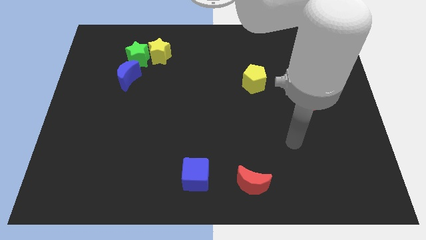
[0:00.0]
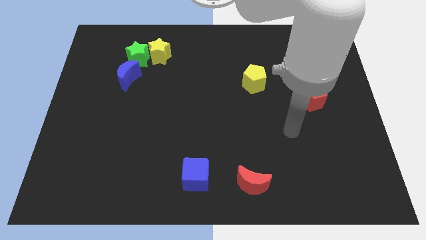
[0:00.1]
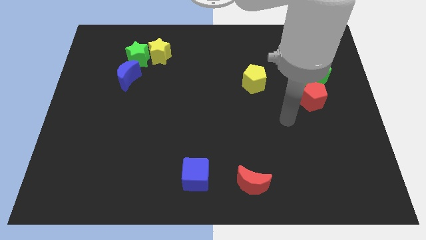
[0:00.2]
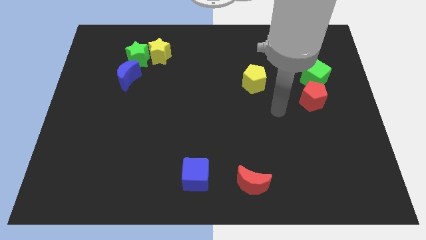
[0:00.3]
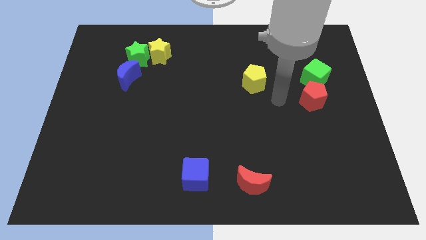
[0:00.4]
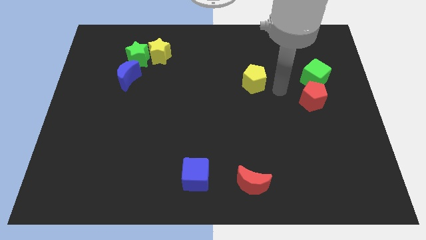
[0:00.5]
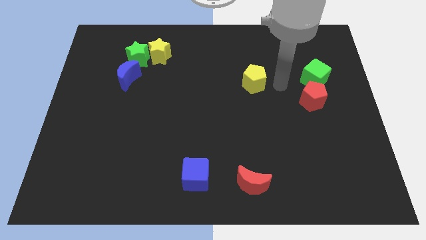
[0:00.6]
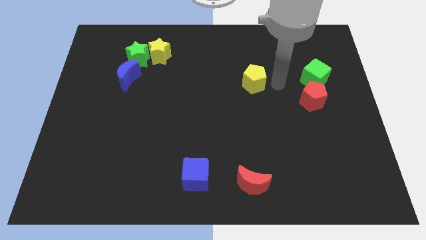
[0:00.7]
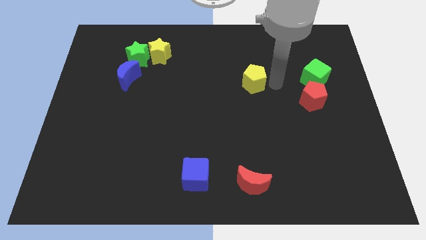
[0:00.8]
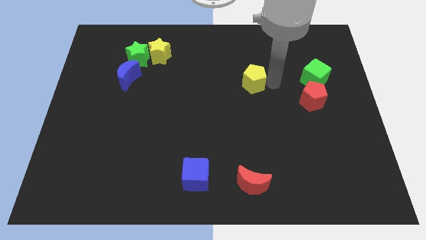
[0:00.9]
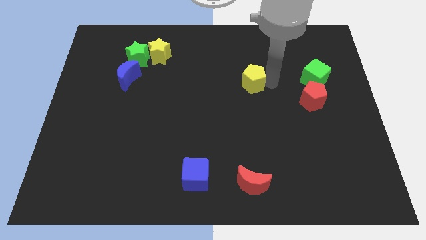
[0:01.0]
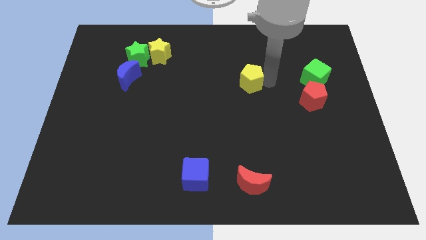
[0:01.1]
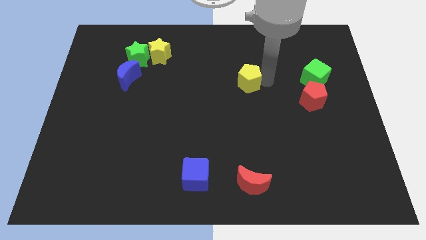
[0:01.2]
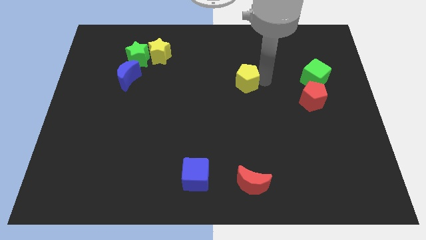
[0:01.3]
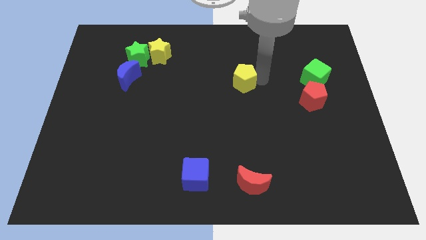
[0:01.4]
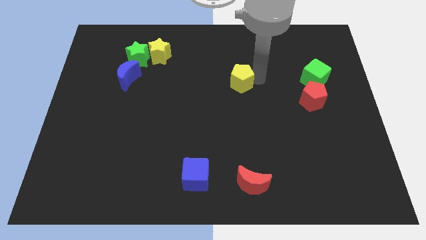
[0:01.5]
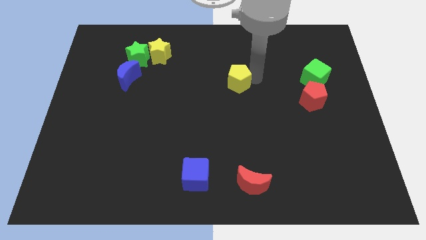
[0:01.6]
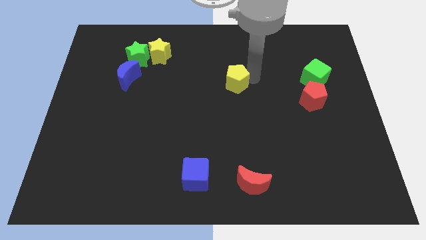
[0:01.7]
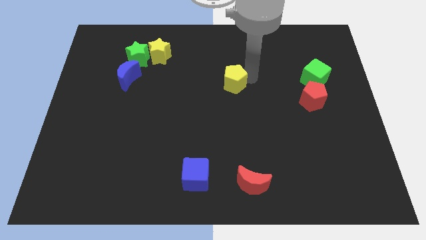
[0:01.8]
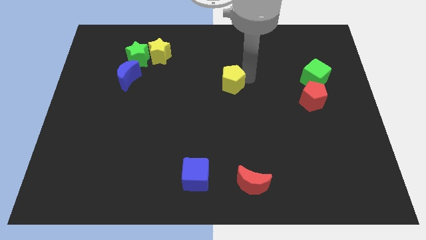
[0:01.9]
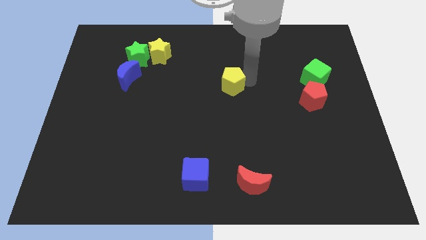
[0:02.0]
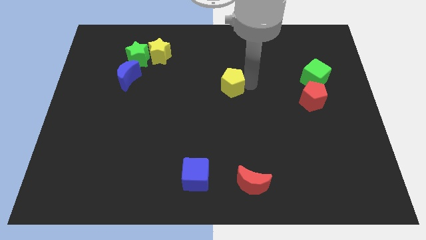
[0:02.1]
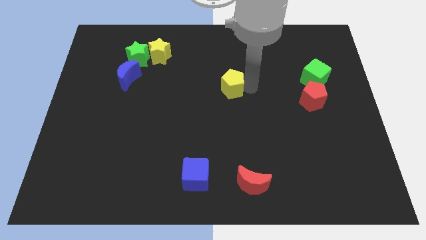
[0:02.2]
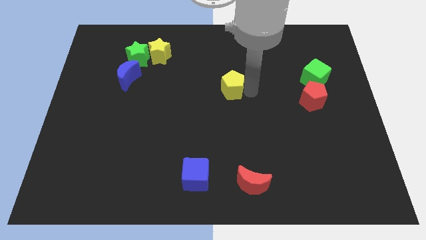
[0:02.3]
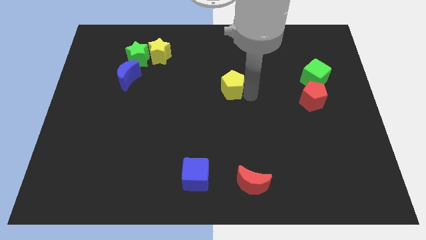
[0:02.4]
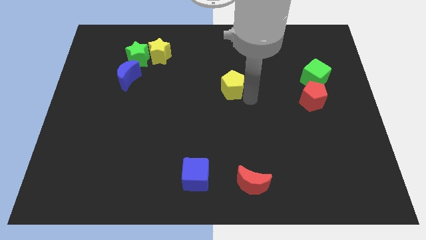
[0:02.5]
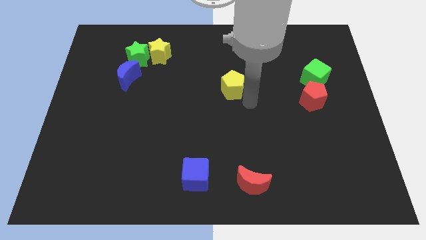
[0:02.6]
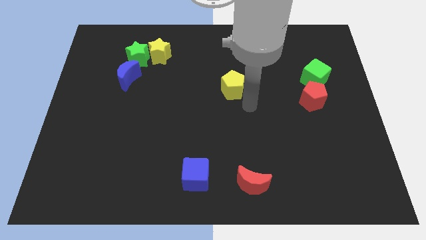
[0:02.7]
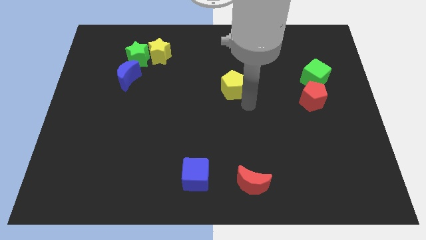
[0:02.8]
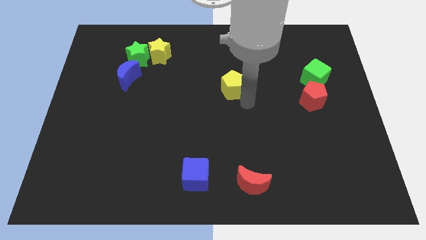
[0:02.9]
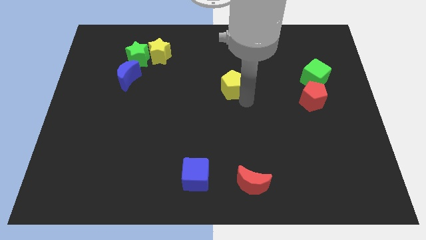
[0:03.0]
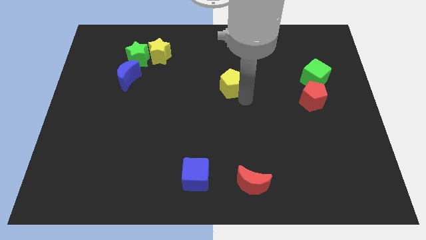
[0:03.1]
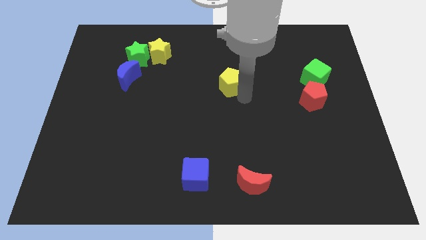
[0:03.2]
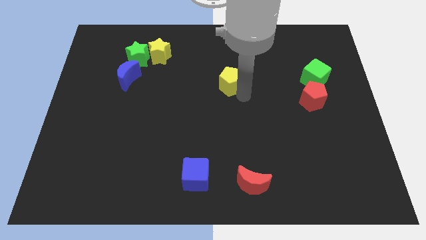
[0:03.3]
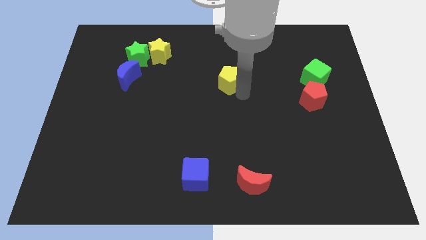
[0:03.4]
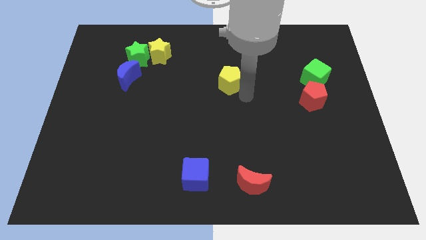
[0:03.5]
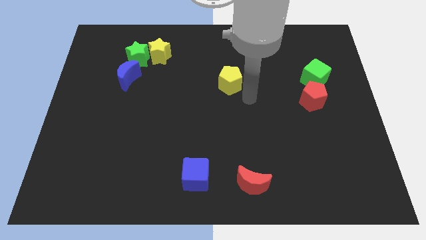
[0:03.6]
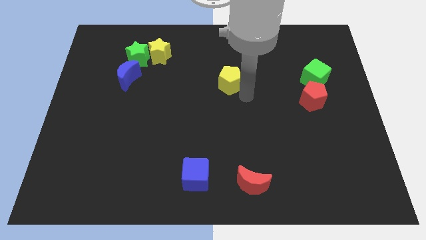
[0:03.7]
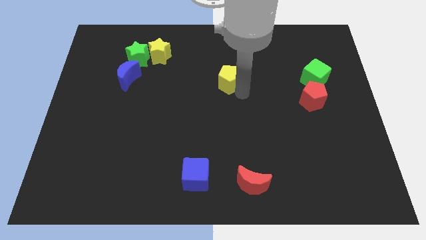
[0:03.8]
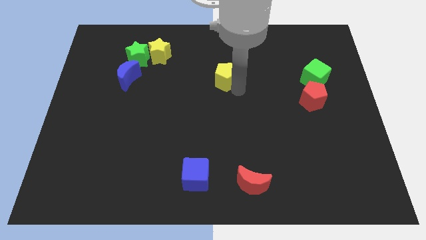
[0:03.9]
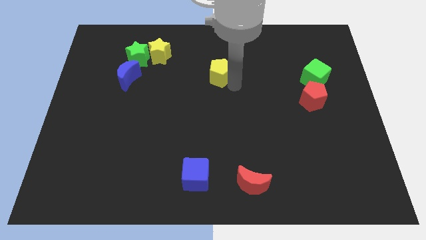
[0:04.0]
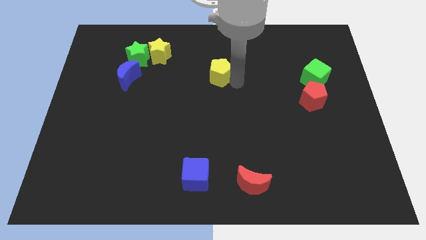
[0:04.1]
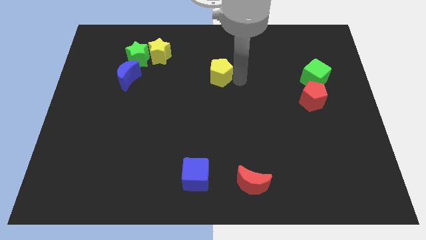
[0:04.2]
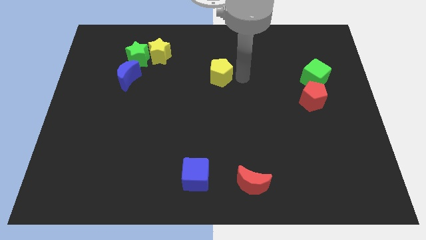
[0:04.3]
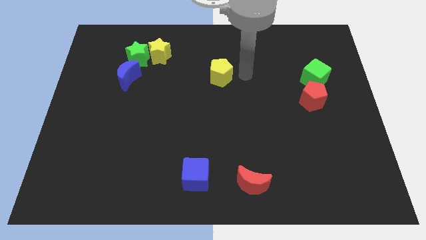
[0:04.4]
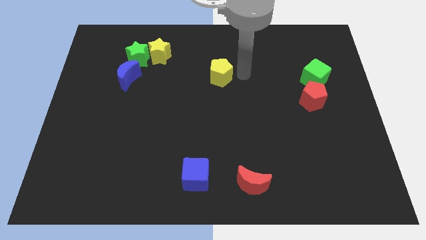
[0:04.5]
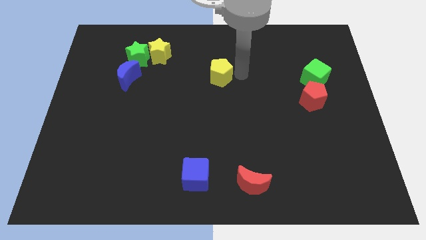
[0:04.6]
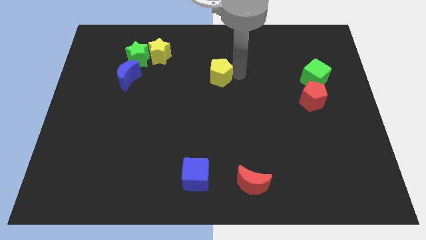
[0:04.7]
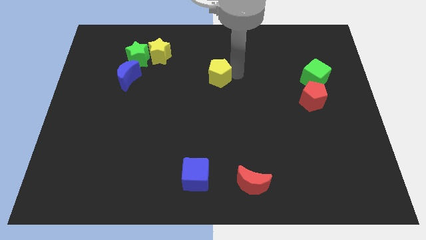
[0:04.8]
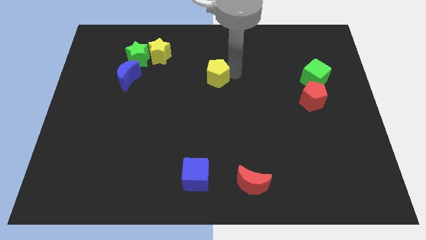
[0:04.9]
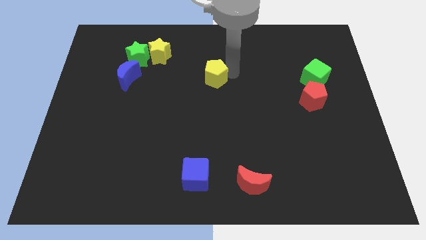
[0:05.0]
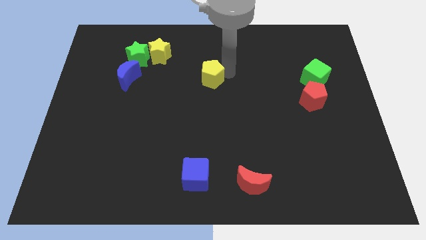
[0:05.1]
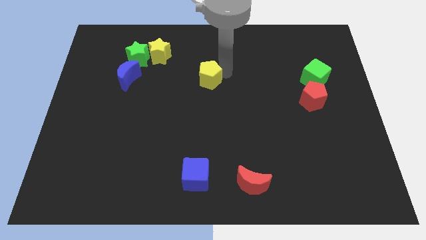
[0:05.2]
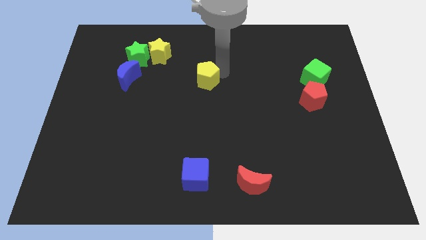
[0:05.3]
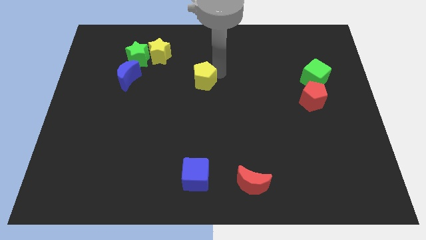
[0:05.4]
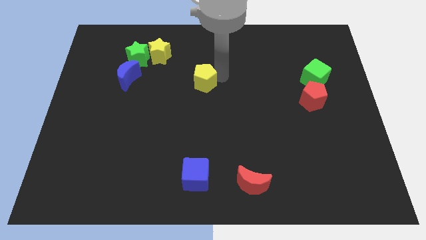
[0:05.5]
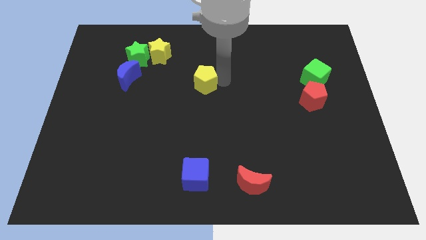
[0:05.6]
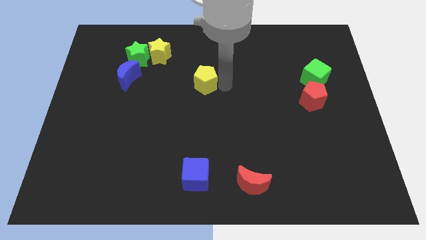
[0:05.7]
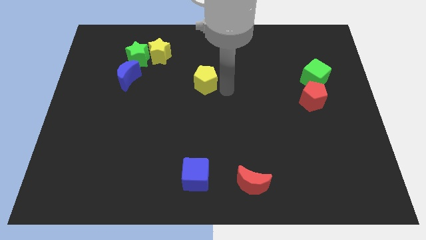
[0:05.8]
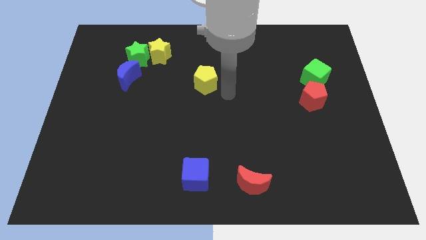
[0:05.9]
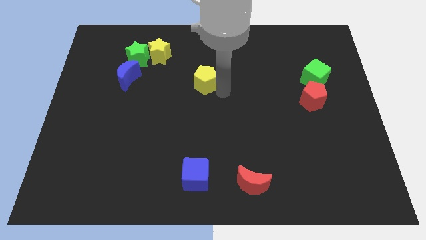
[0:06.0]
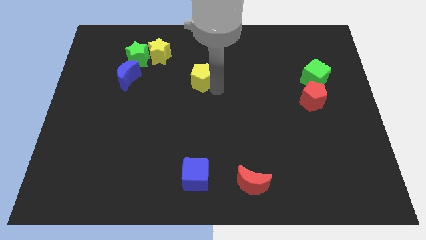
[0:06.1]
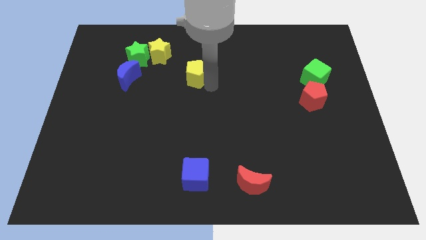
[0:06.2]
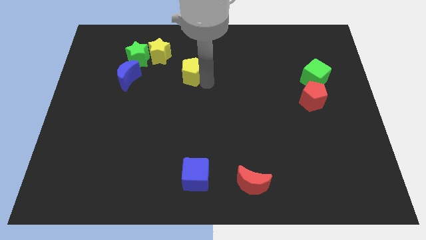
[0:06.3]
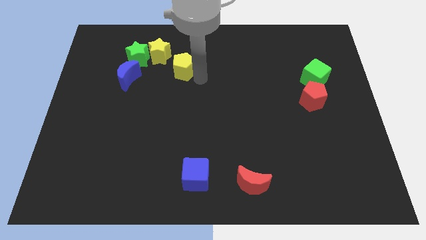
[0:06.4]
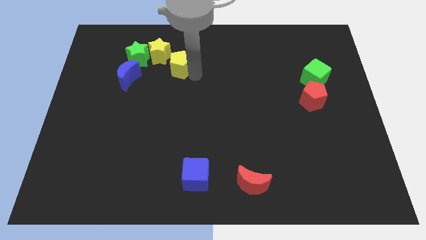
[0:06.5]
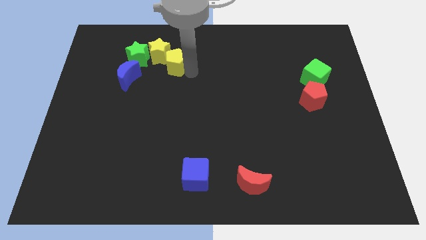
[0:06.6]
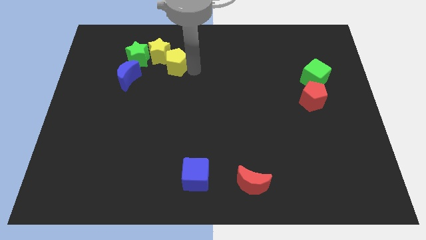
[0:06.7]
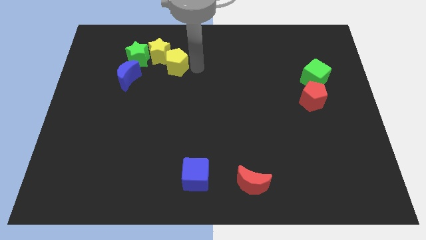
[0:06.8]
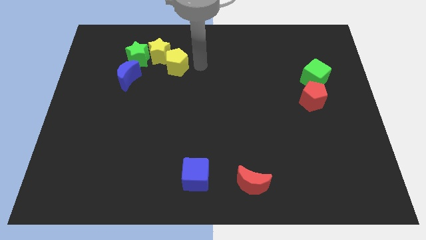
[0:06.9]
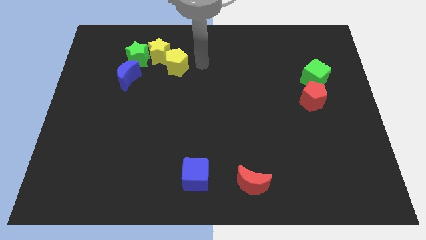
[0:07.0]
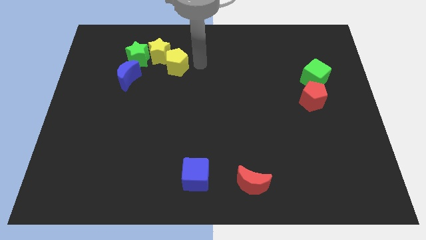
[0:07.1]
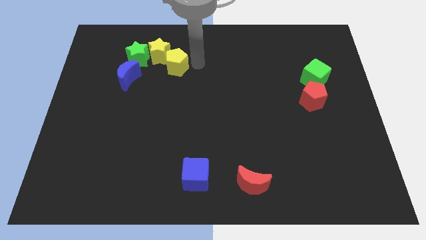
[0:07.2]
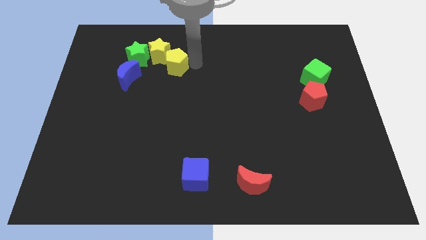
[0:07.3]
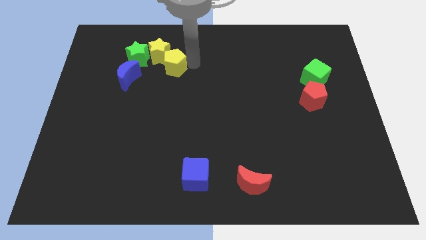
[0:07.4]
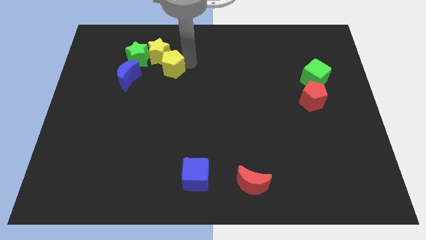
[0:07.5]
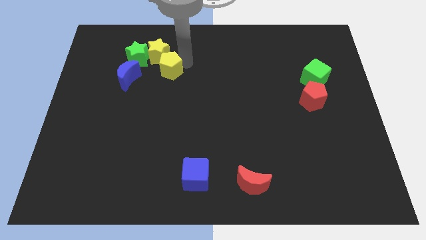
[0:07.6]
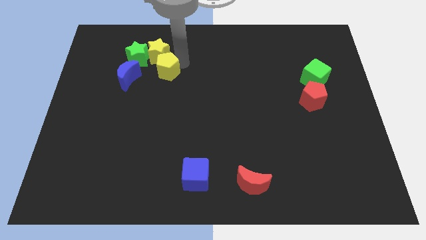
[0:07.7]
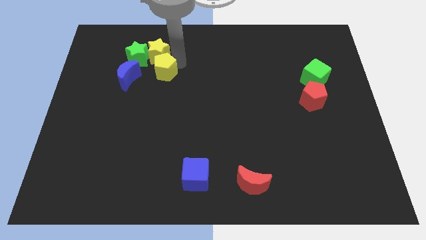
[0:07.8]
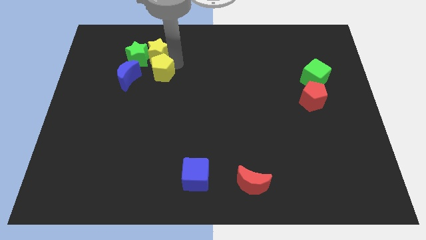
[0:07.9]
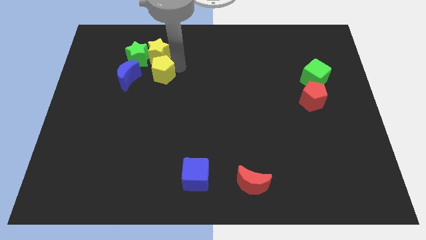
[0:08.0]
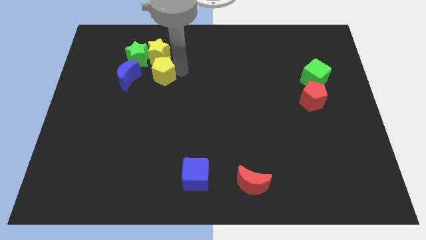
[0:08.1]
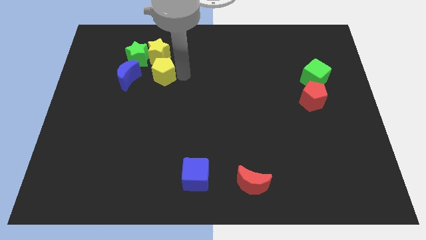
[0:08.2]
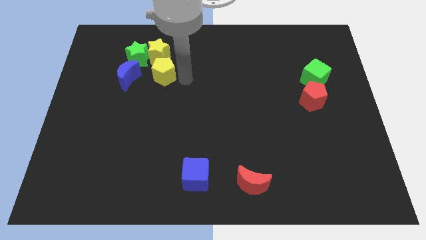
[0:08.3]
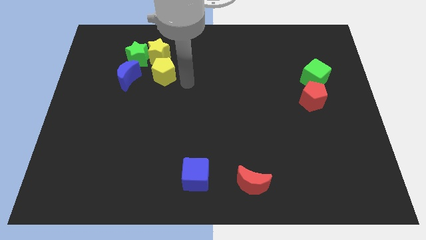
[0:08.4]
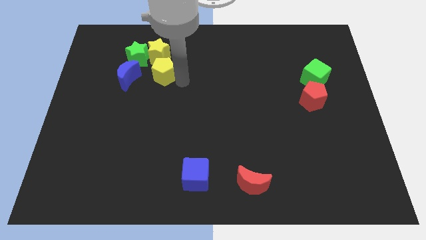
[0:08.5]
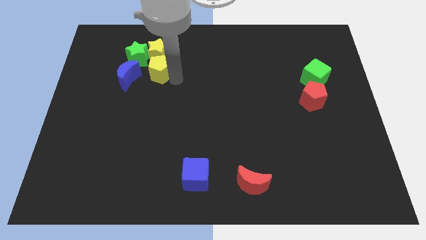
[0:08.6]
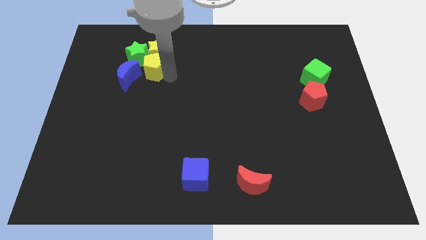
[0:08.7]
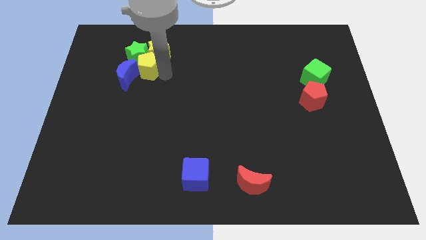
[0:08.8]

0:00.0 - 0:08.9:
move the yellow pentagon to the green star
